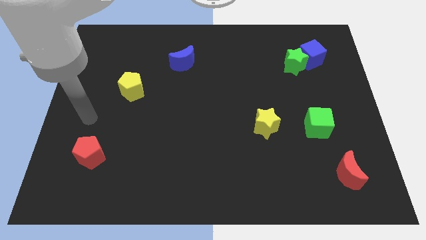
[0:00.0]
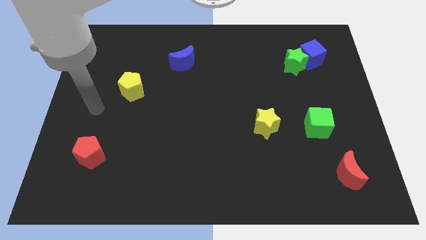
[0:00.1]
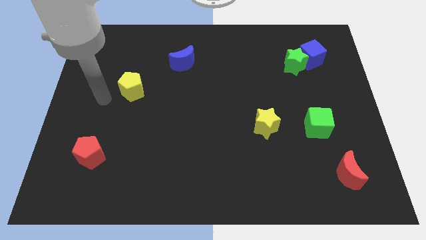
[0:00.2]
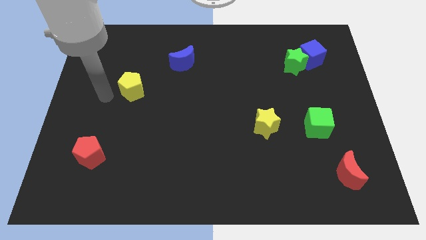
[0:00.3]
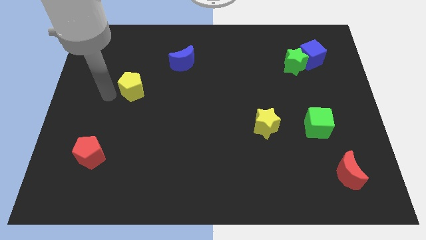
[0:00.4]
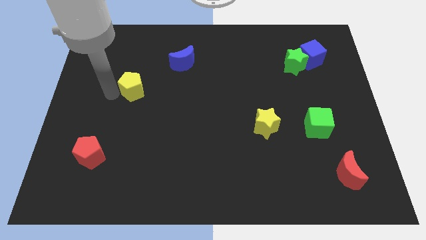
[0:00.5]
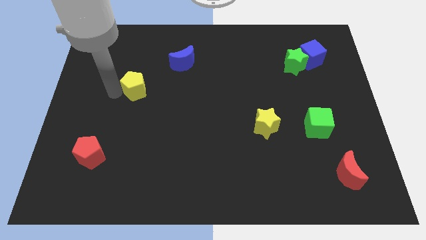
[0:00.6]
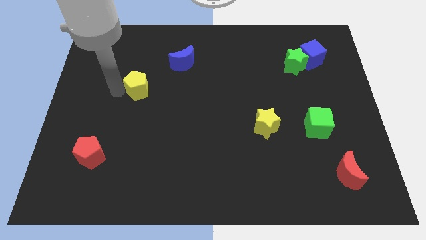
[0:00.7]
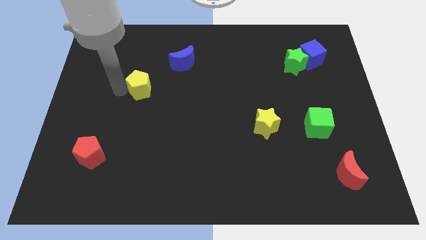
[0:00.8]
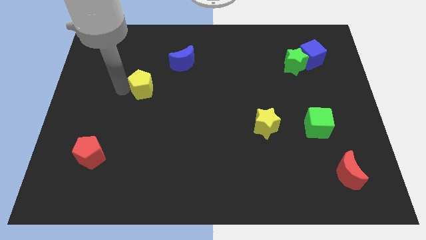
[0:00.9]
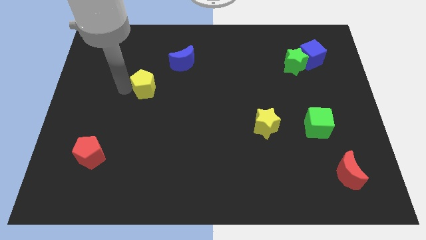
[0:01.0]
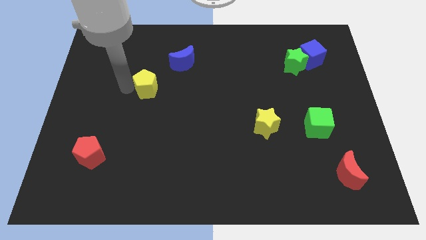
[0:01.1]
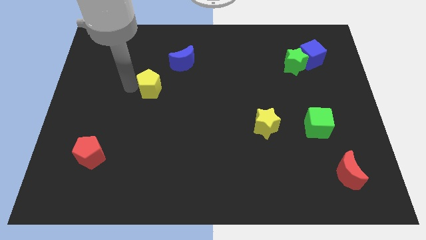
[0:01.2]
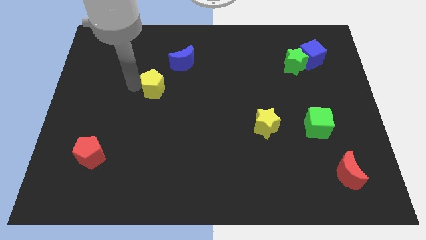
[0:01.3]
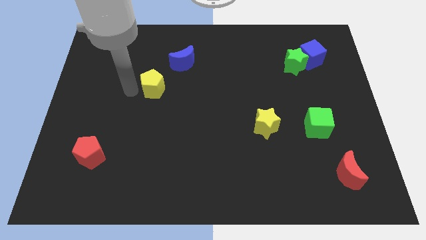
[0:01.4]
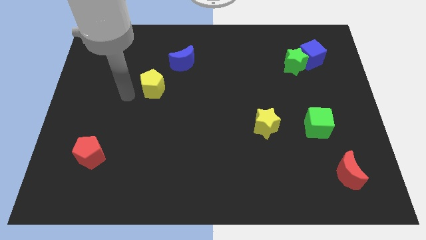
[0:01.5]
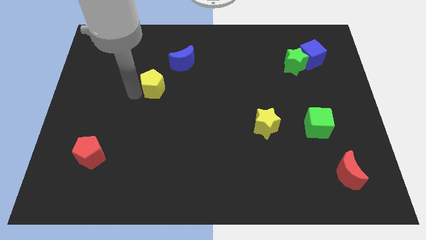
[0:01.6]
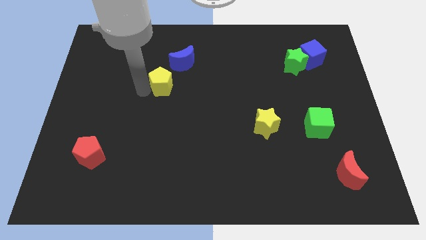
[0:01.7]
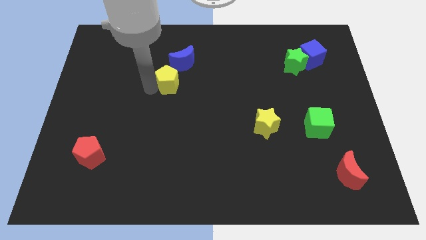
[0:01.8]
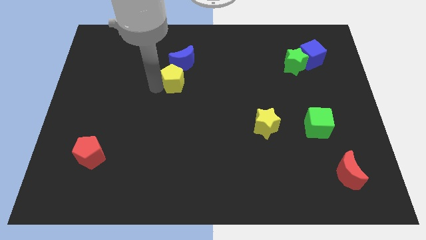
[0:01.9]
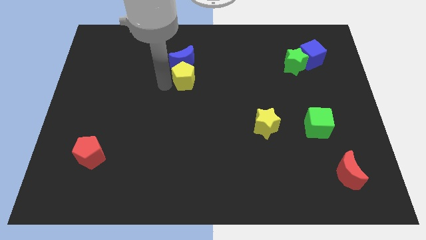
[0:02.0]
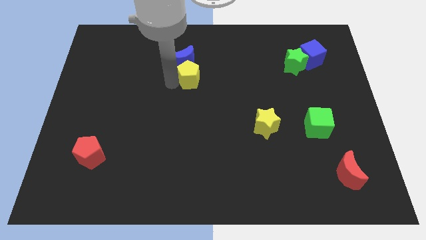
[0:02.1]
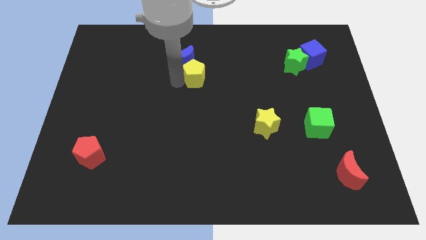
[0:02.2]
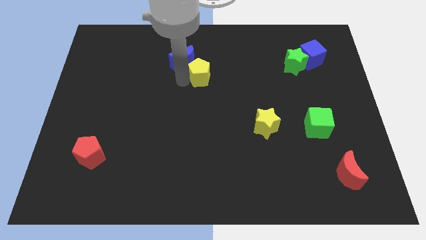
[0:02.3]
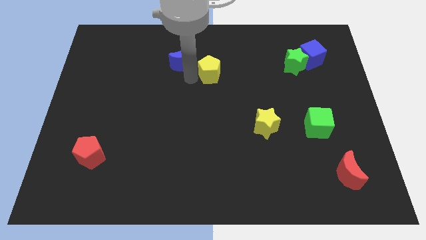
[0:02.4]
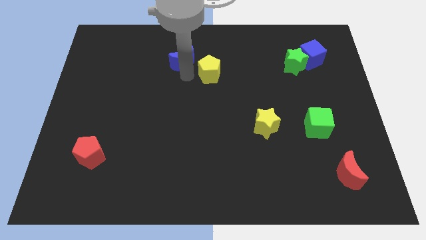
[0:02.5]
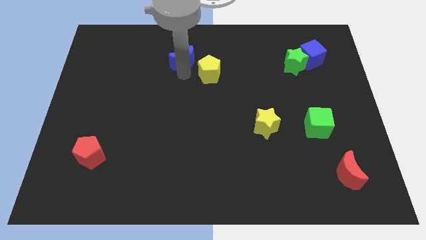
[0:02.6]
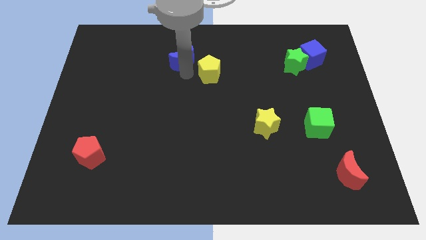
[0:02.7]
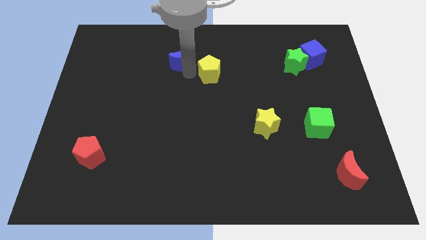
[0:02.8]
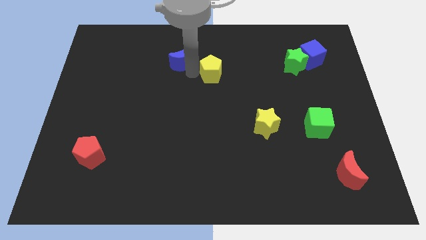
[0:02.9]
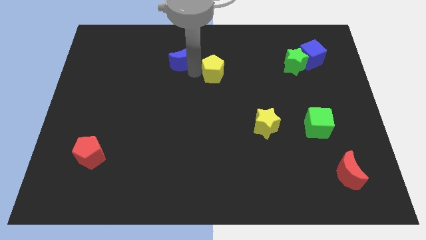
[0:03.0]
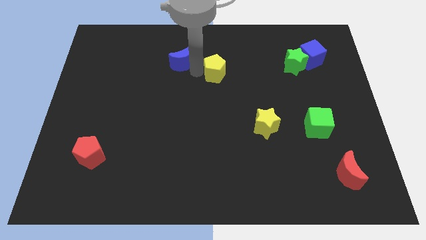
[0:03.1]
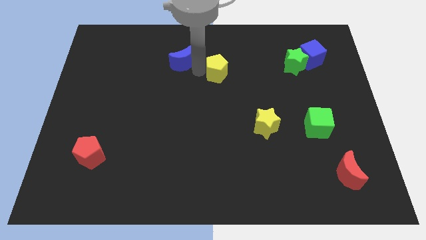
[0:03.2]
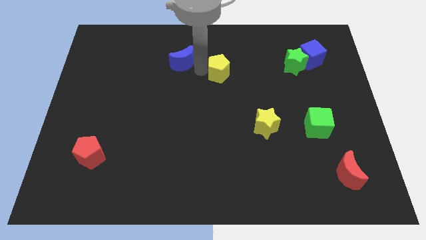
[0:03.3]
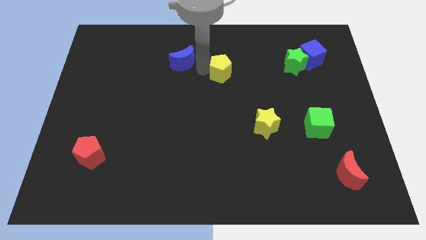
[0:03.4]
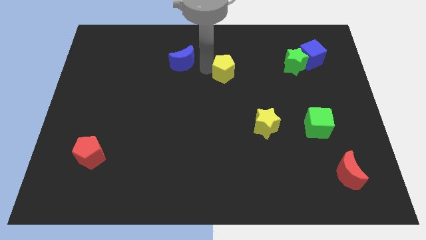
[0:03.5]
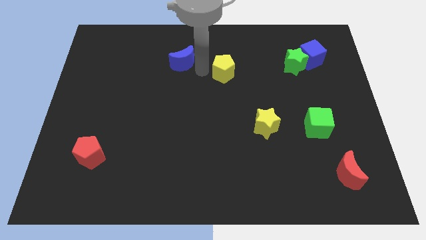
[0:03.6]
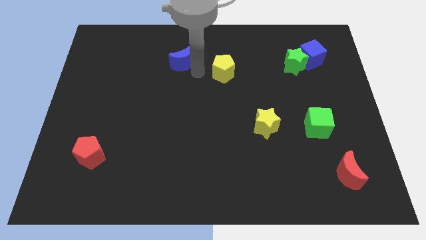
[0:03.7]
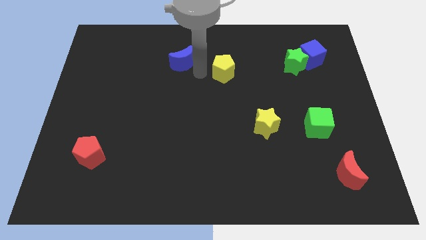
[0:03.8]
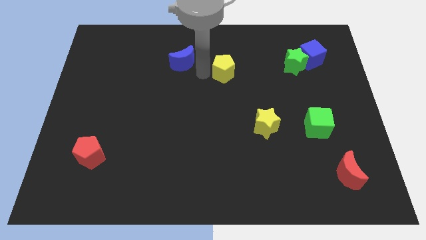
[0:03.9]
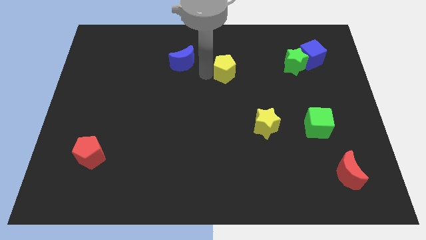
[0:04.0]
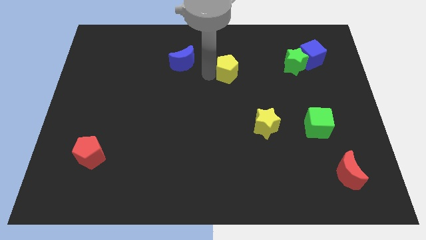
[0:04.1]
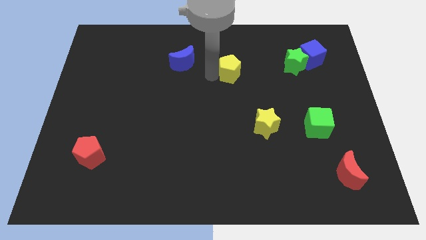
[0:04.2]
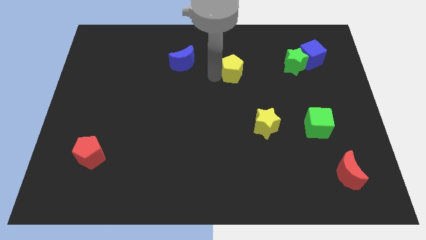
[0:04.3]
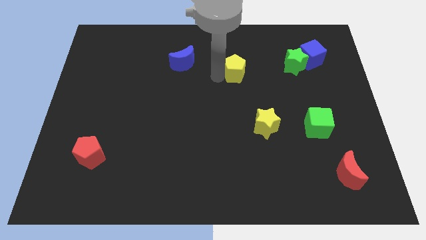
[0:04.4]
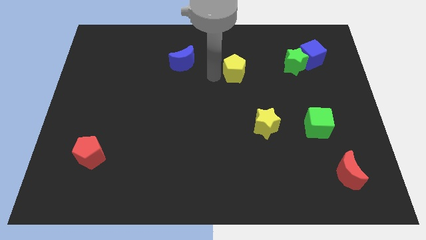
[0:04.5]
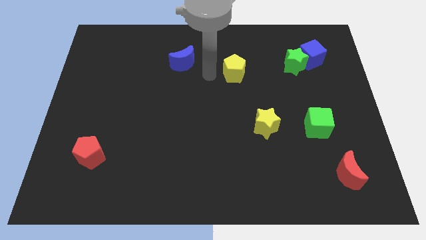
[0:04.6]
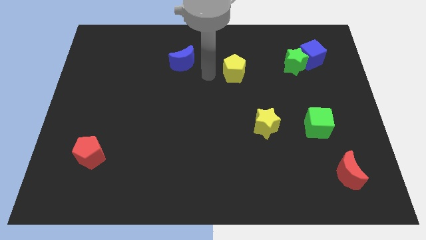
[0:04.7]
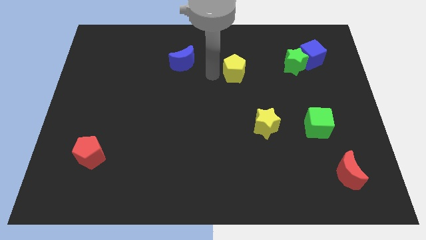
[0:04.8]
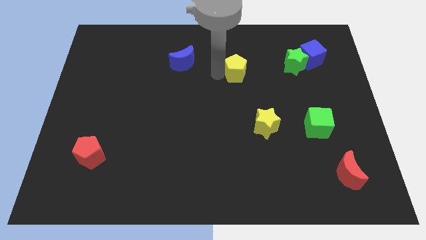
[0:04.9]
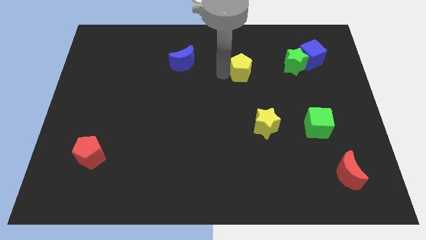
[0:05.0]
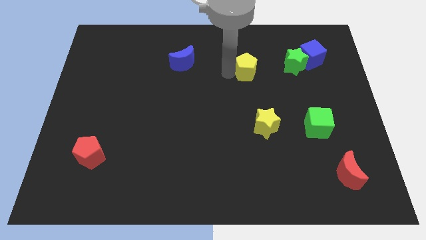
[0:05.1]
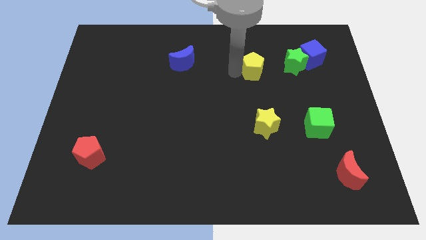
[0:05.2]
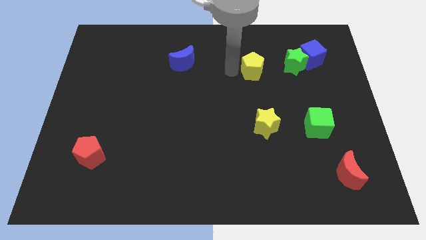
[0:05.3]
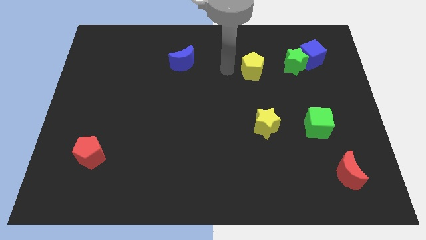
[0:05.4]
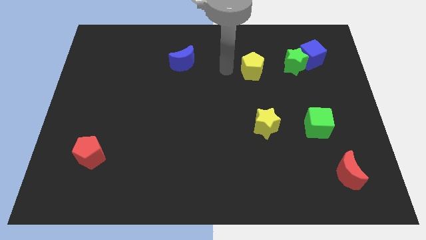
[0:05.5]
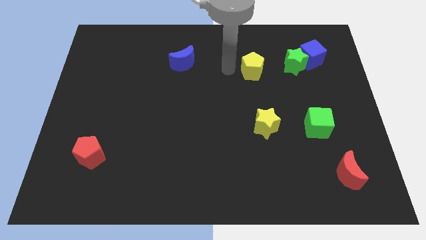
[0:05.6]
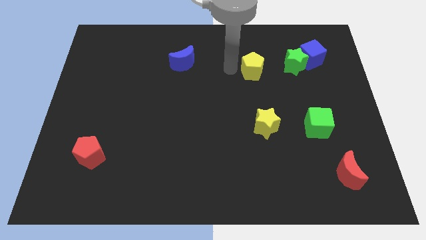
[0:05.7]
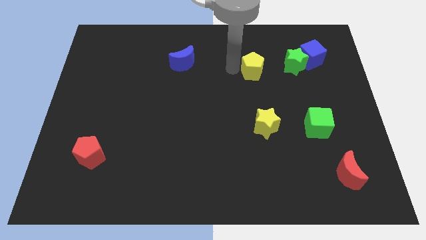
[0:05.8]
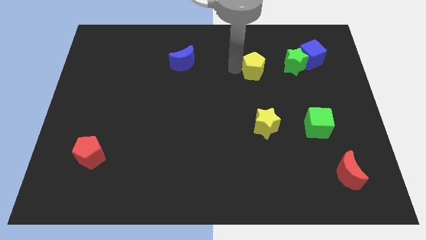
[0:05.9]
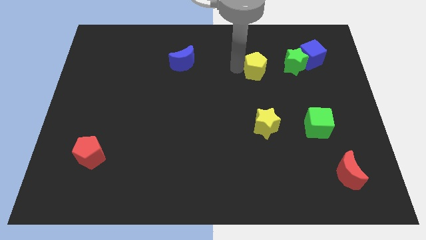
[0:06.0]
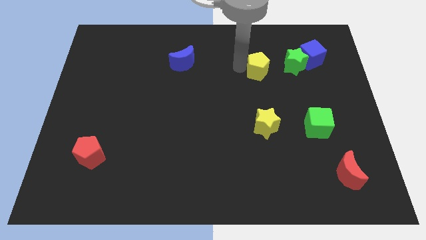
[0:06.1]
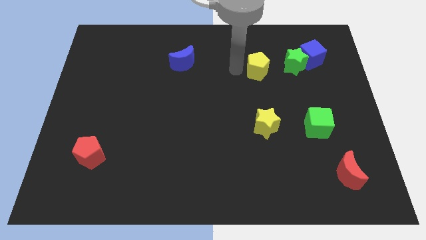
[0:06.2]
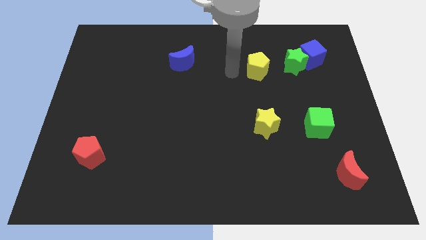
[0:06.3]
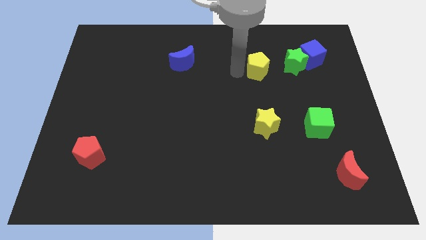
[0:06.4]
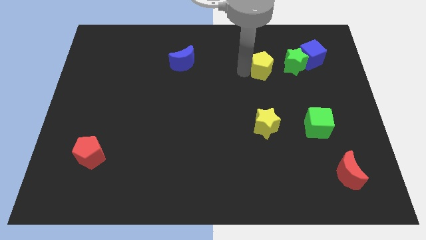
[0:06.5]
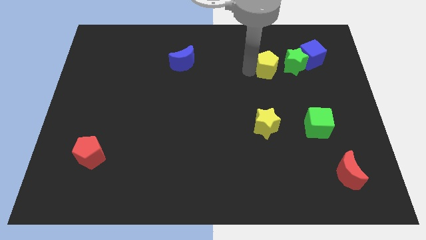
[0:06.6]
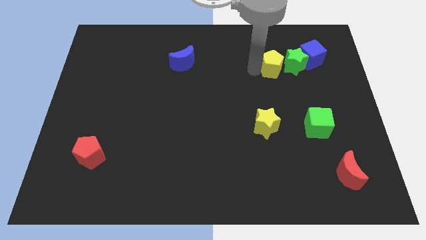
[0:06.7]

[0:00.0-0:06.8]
move the yellow pentagon close to the green star
